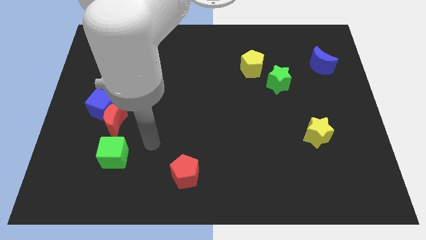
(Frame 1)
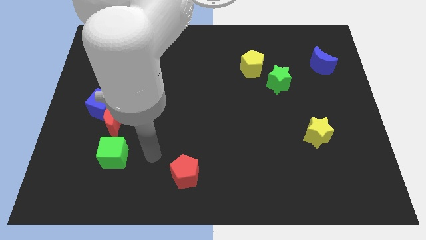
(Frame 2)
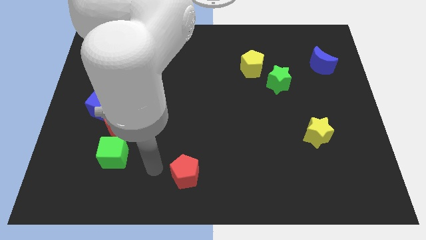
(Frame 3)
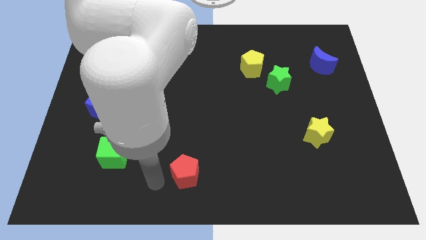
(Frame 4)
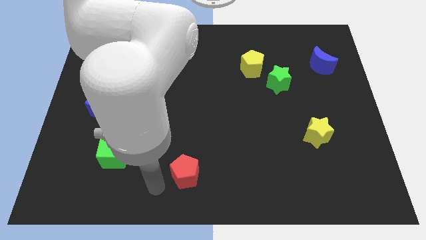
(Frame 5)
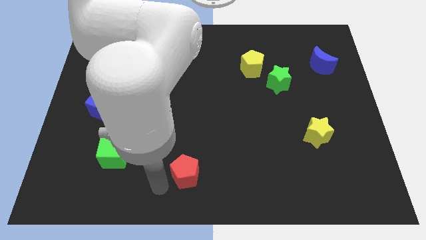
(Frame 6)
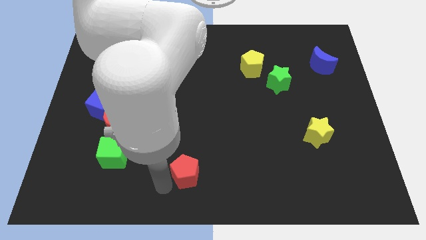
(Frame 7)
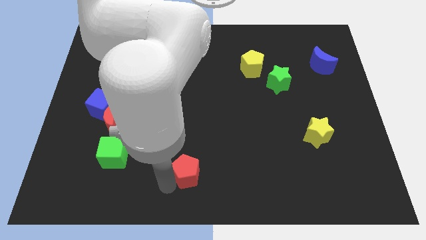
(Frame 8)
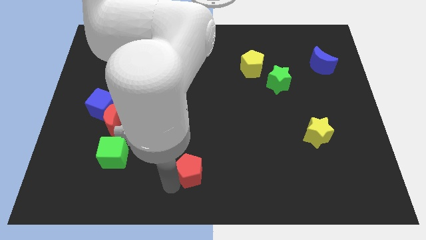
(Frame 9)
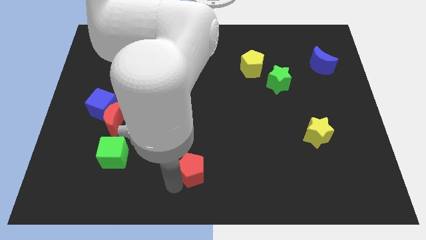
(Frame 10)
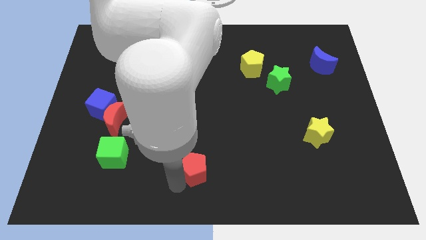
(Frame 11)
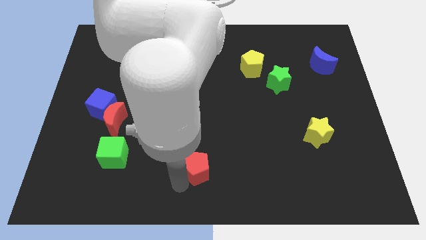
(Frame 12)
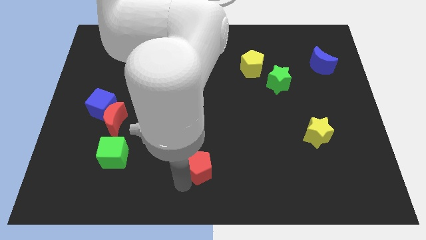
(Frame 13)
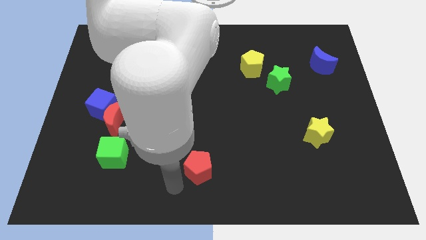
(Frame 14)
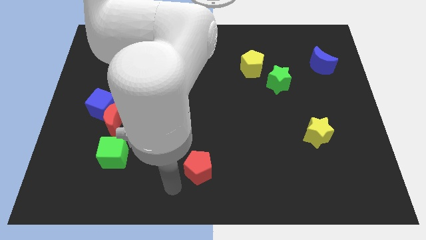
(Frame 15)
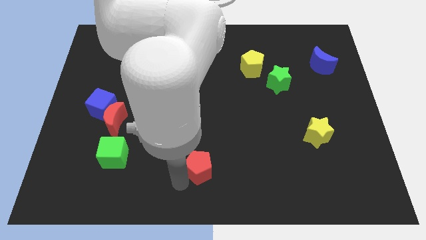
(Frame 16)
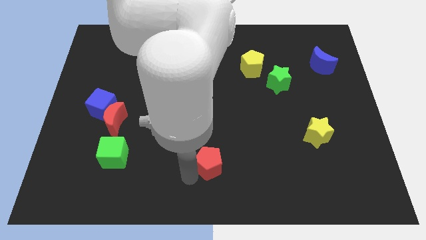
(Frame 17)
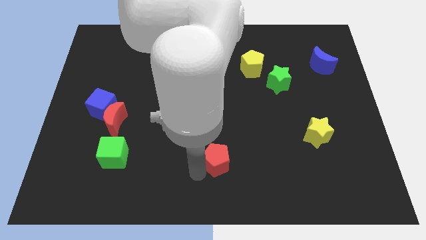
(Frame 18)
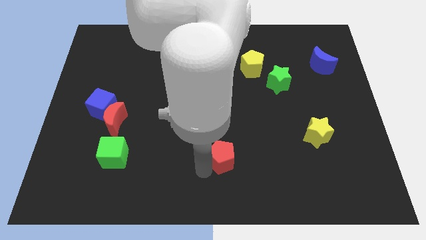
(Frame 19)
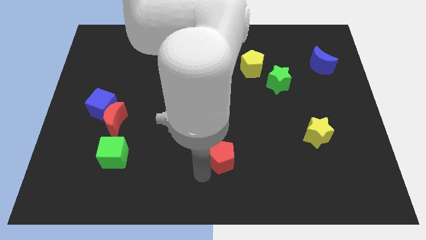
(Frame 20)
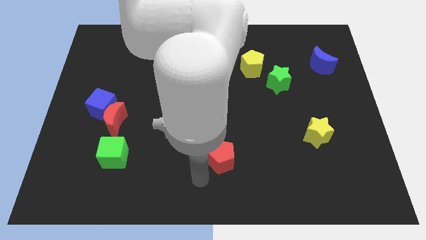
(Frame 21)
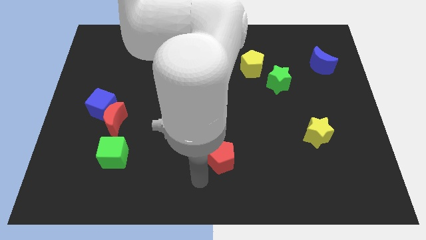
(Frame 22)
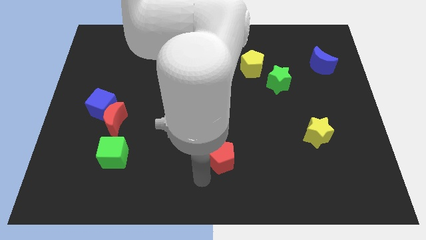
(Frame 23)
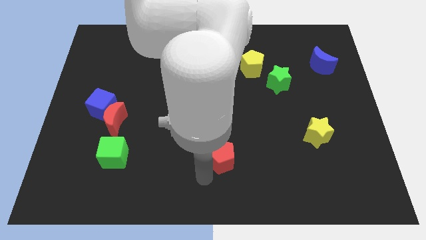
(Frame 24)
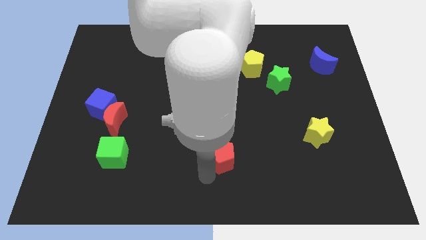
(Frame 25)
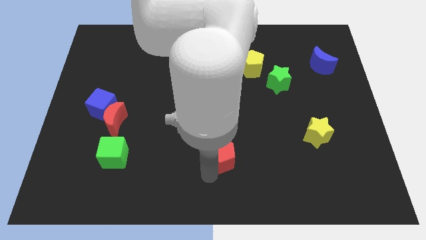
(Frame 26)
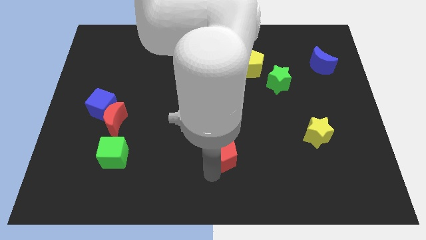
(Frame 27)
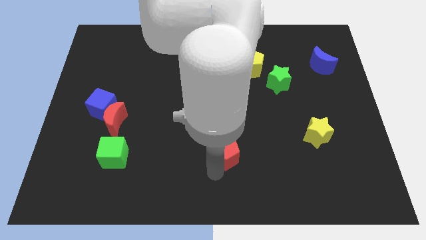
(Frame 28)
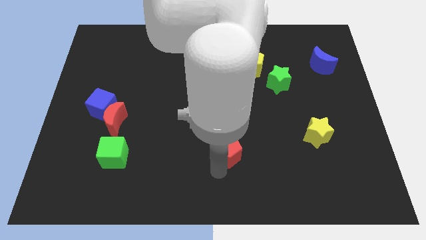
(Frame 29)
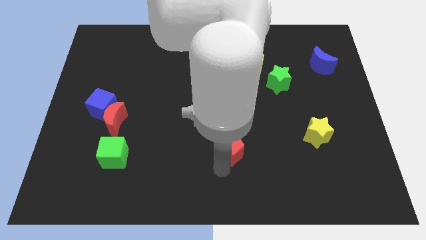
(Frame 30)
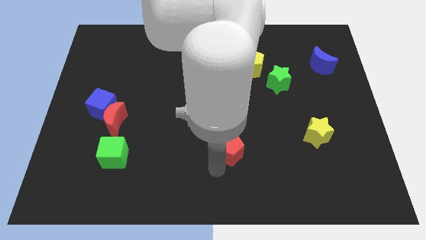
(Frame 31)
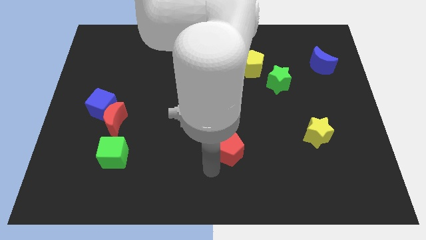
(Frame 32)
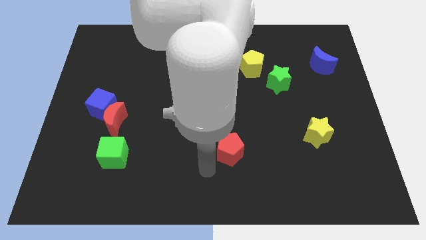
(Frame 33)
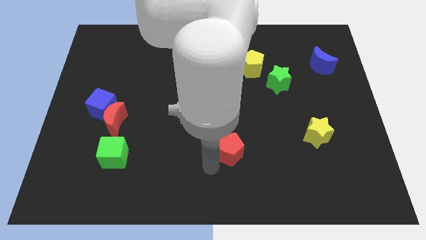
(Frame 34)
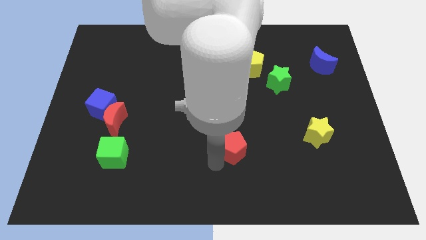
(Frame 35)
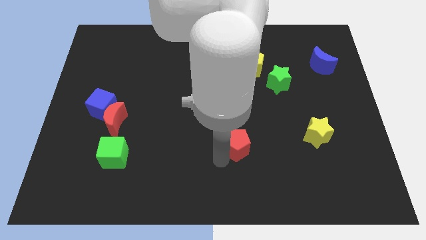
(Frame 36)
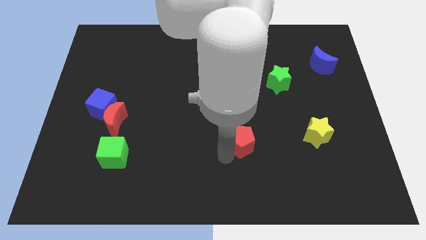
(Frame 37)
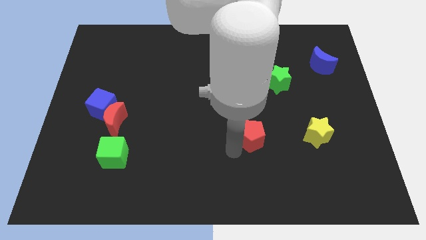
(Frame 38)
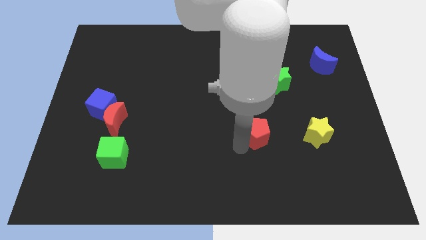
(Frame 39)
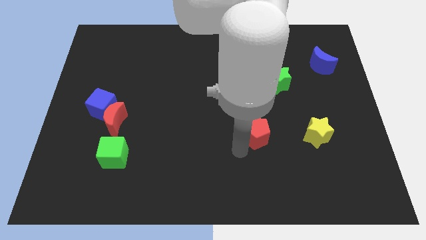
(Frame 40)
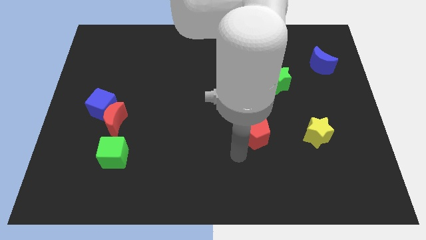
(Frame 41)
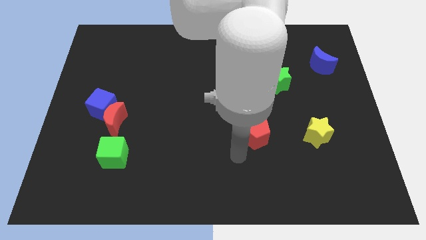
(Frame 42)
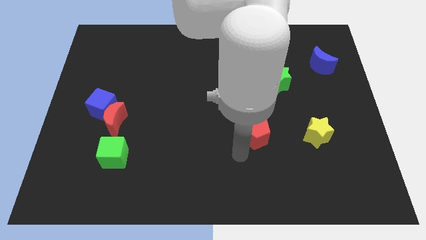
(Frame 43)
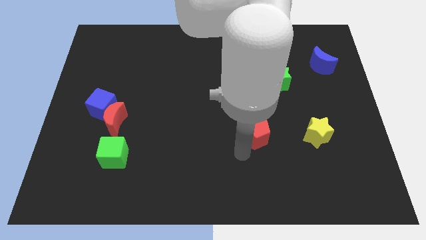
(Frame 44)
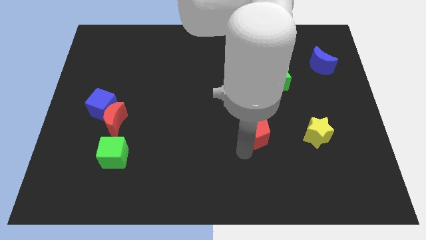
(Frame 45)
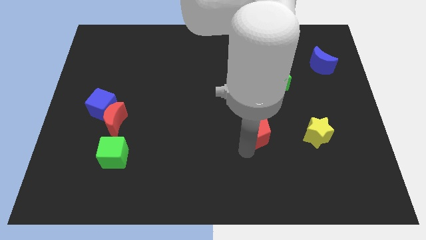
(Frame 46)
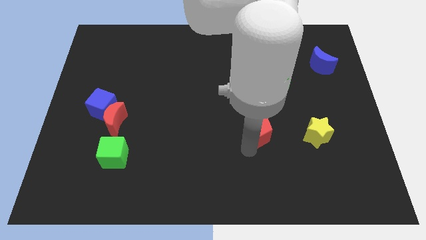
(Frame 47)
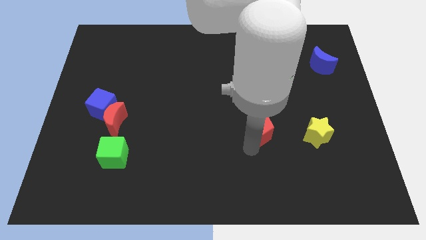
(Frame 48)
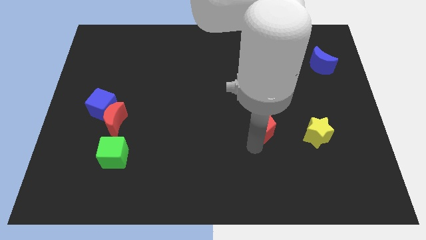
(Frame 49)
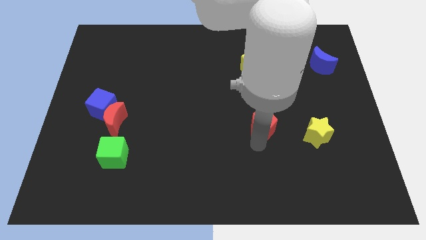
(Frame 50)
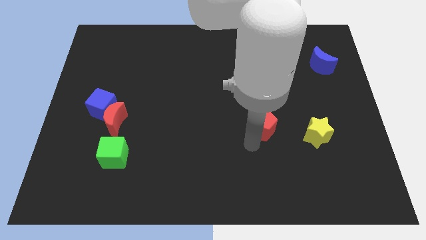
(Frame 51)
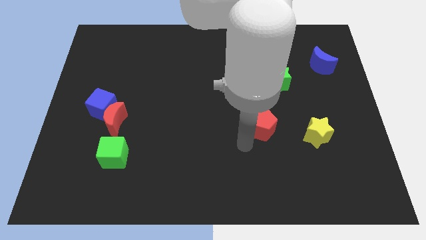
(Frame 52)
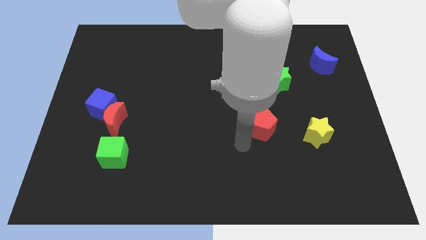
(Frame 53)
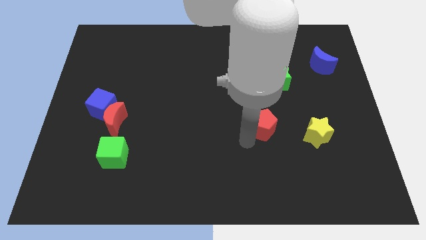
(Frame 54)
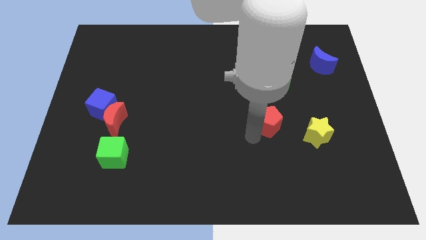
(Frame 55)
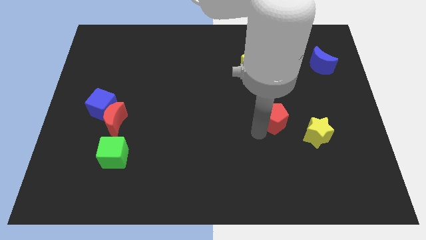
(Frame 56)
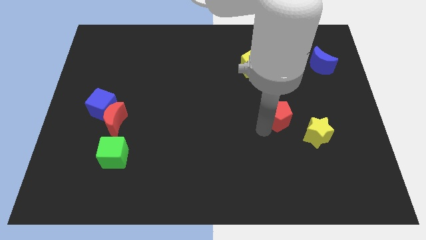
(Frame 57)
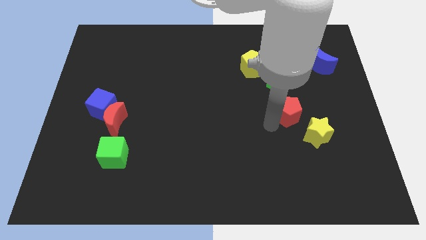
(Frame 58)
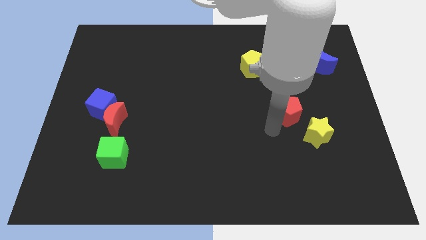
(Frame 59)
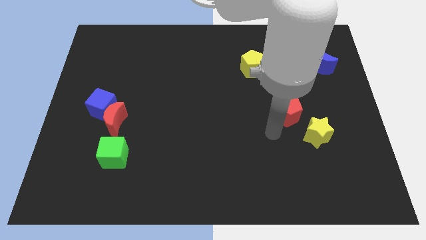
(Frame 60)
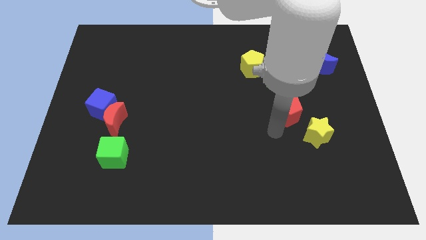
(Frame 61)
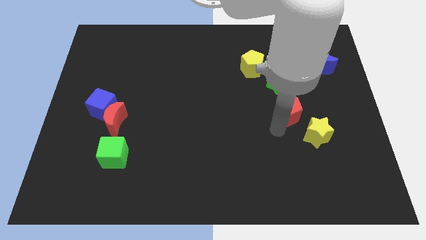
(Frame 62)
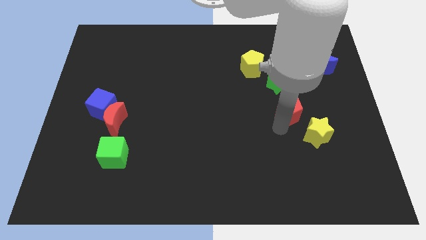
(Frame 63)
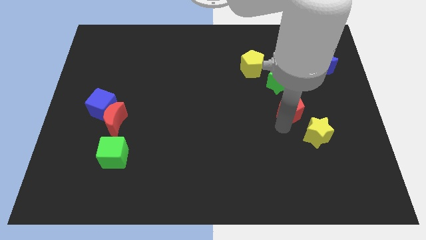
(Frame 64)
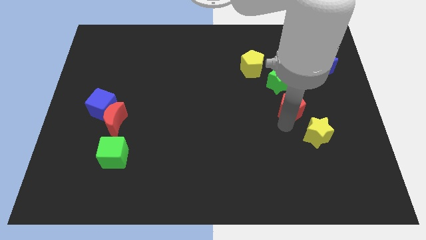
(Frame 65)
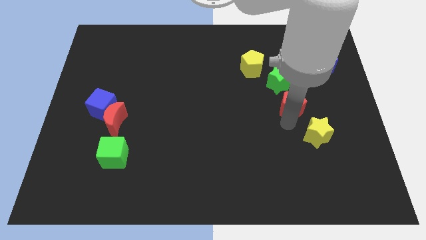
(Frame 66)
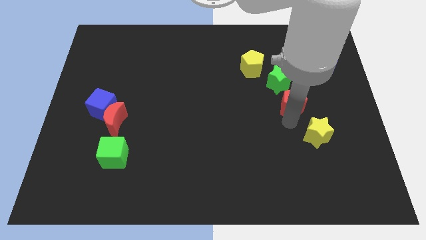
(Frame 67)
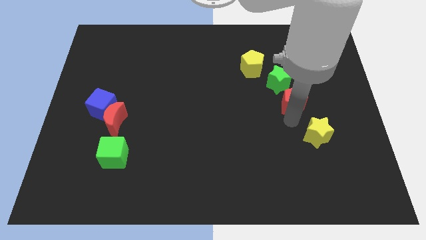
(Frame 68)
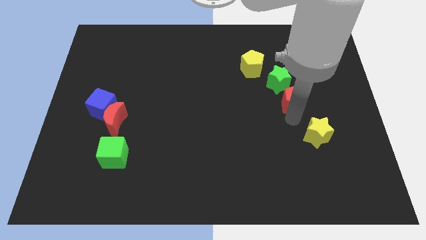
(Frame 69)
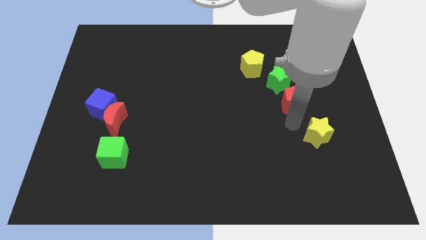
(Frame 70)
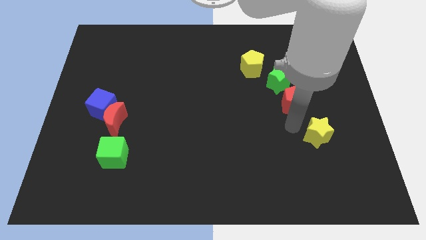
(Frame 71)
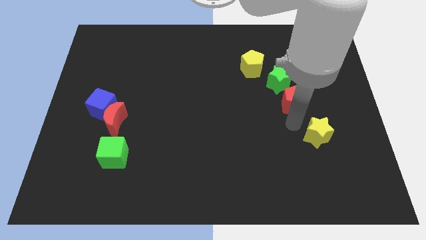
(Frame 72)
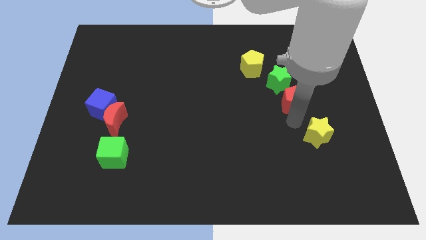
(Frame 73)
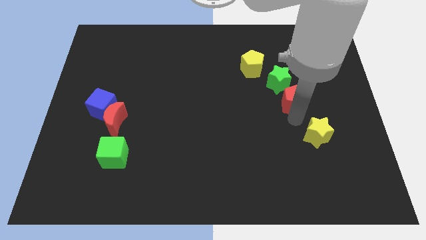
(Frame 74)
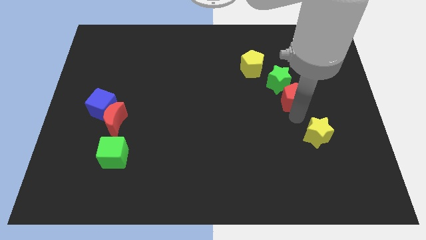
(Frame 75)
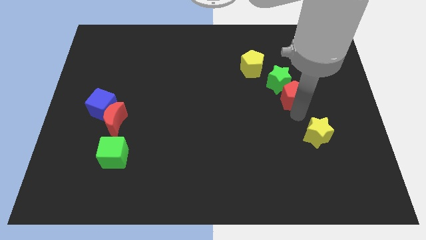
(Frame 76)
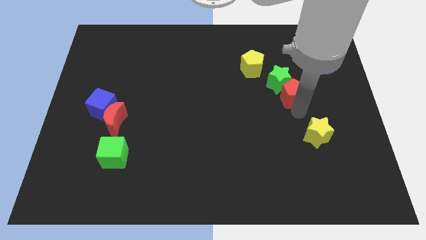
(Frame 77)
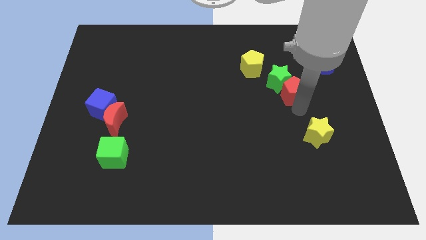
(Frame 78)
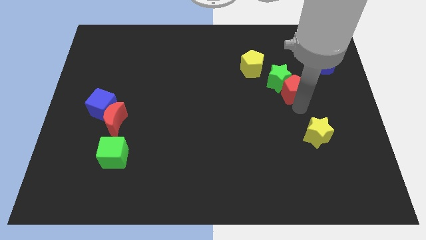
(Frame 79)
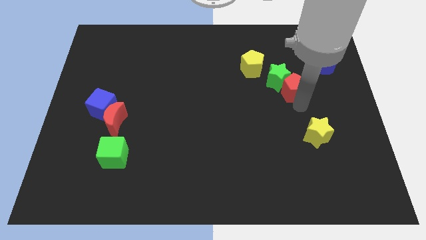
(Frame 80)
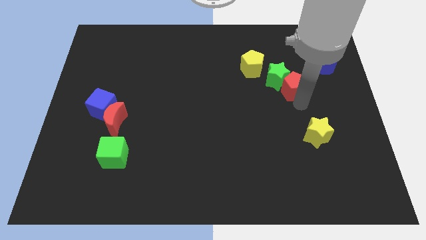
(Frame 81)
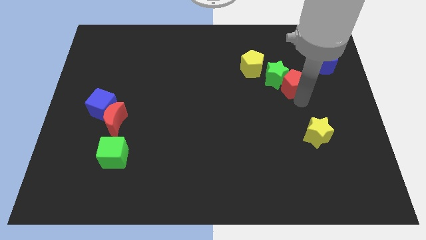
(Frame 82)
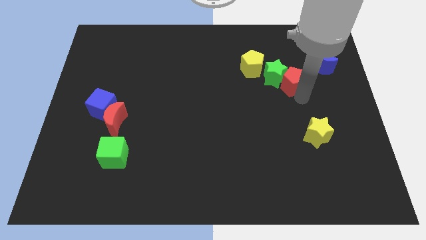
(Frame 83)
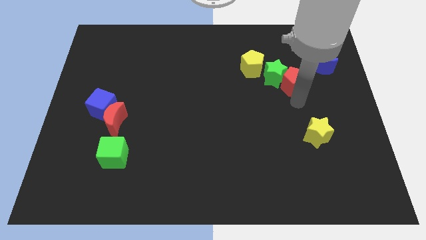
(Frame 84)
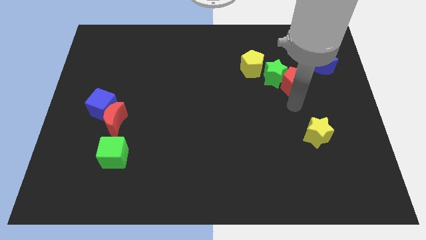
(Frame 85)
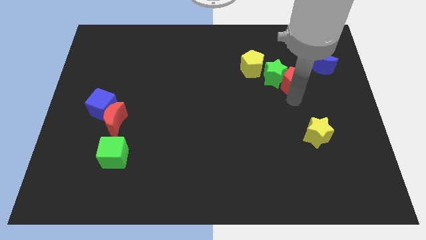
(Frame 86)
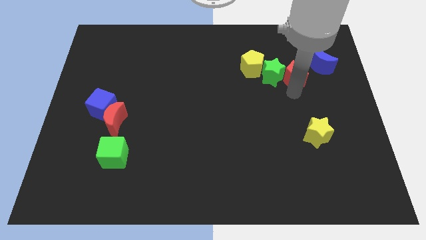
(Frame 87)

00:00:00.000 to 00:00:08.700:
put the red pentagon diagonally up and to the right of the green star
